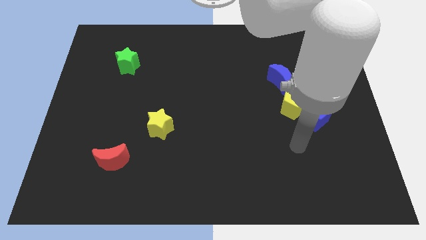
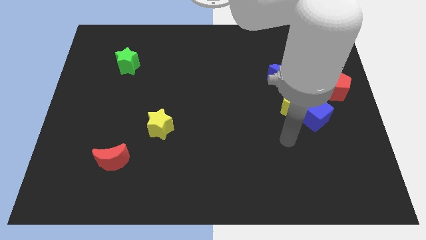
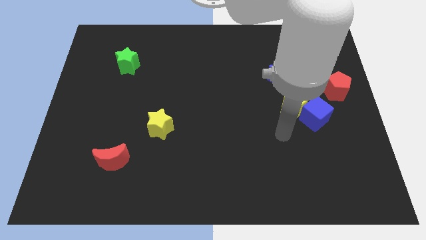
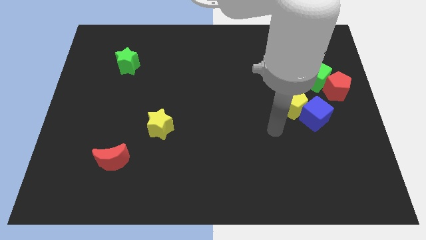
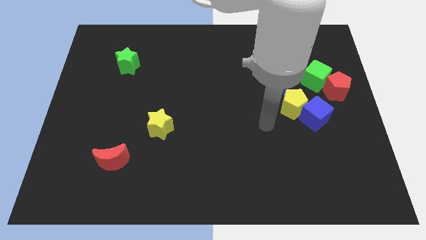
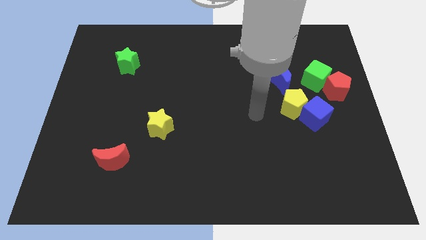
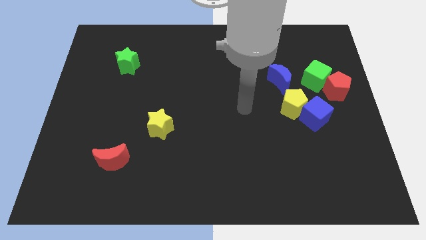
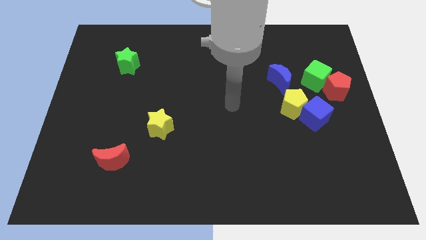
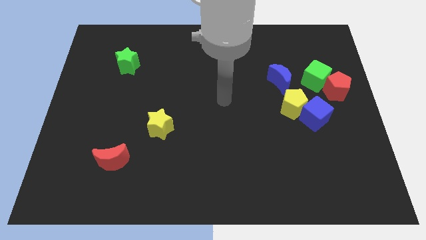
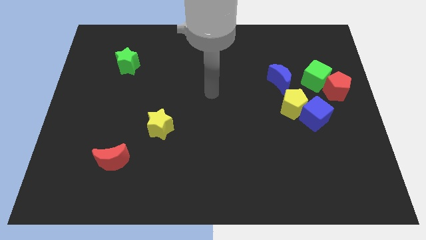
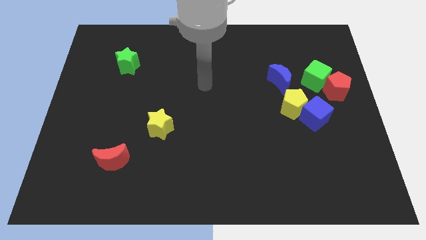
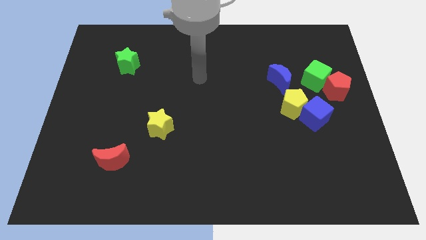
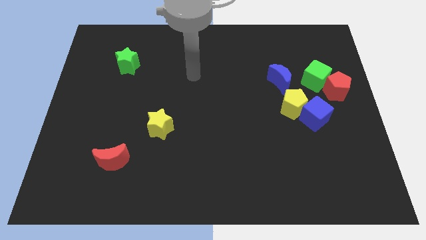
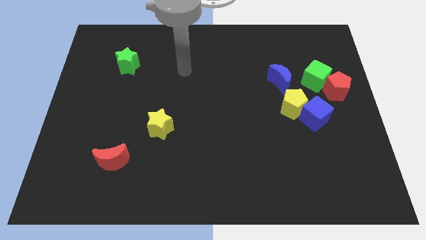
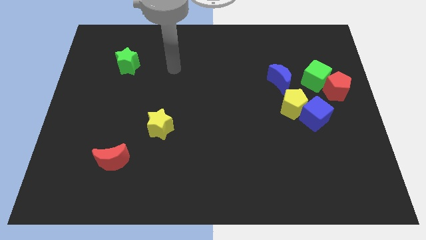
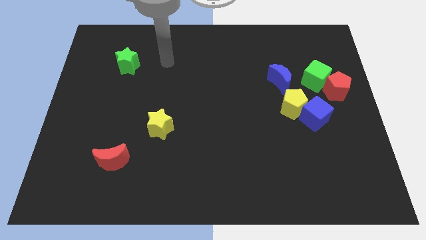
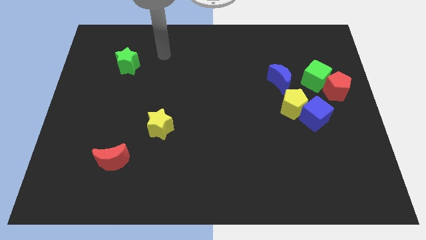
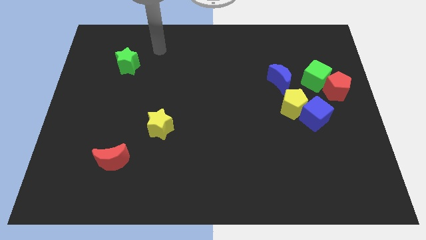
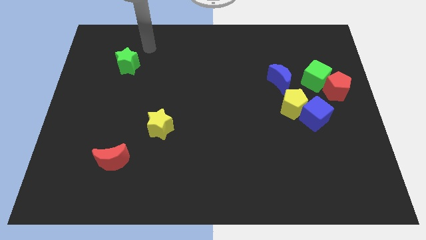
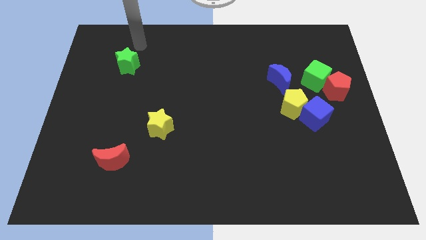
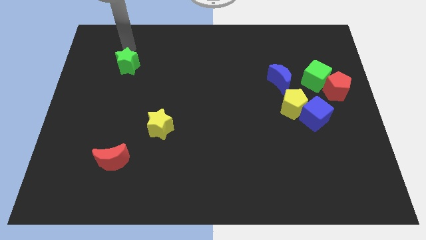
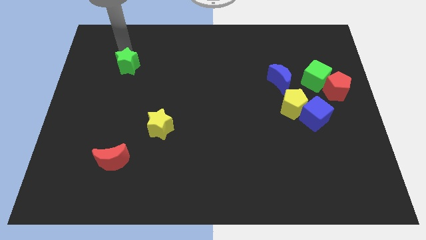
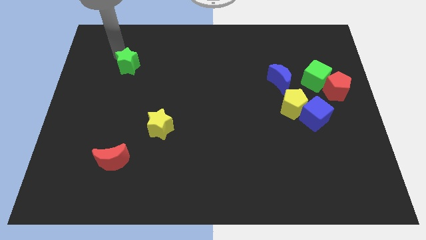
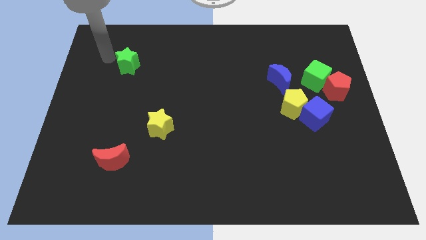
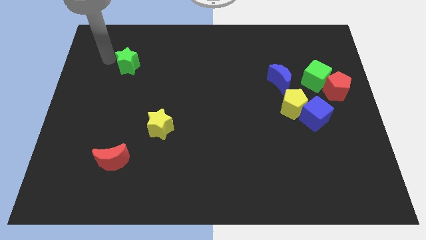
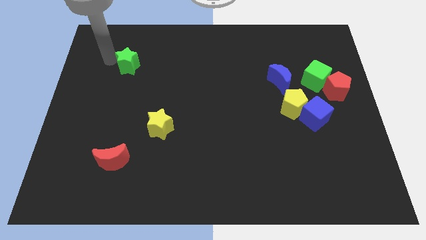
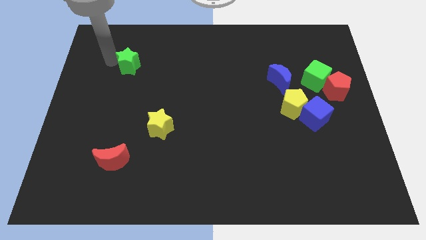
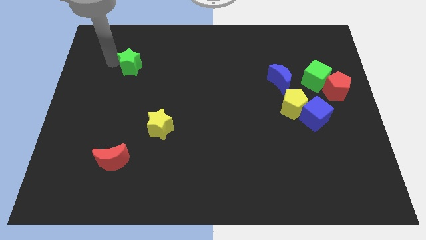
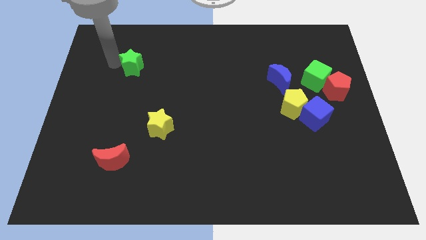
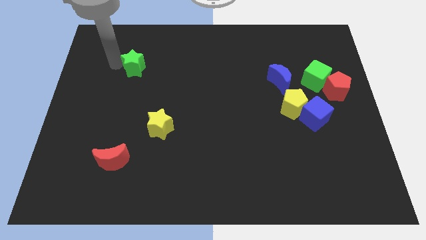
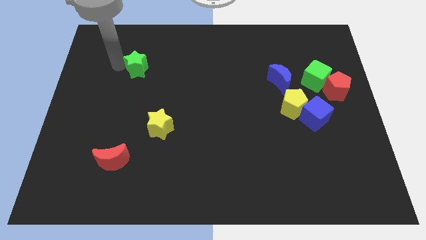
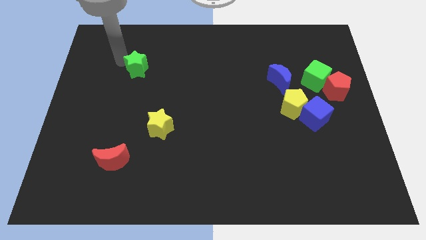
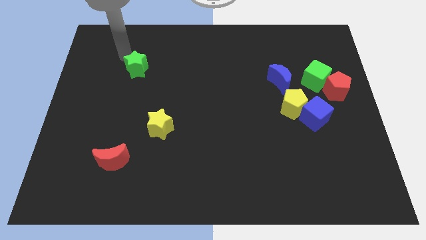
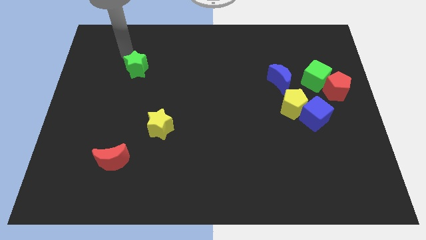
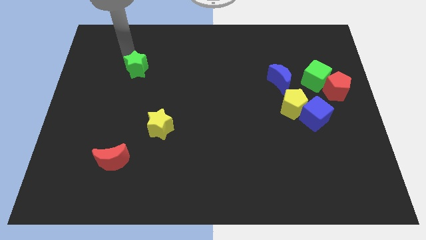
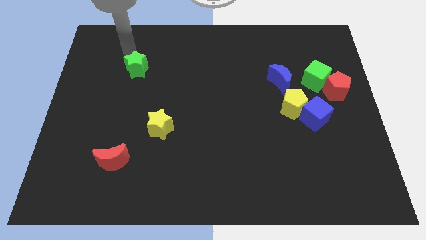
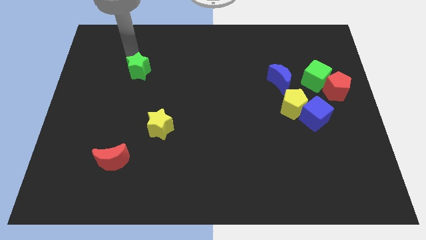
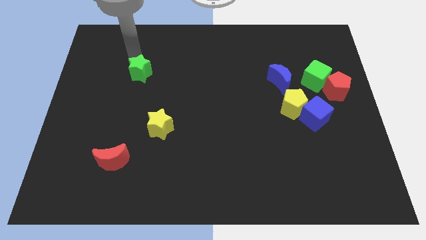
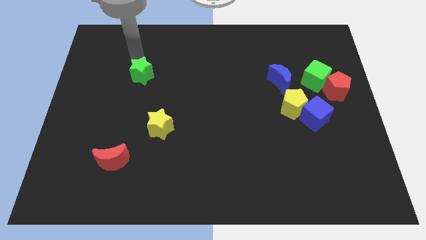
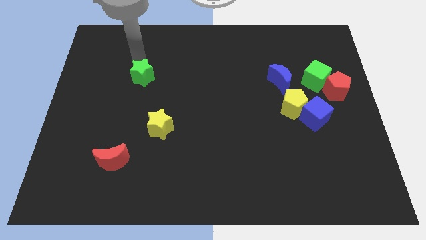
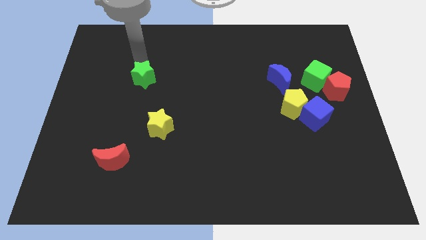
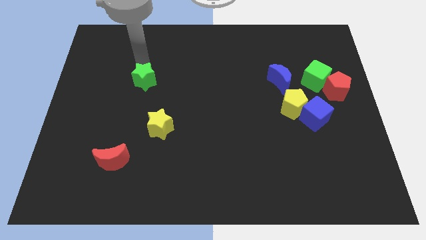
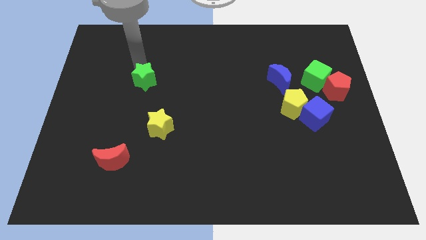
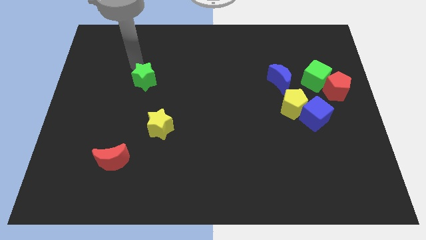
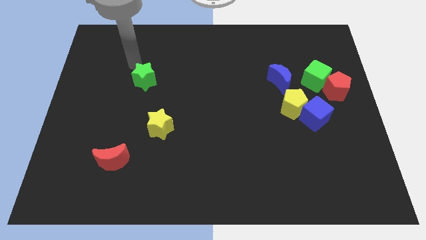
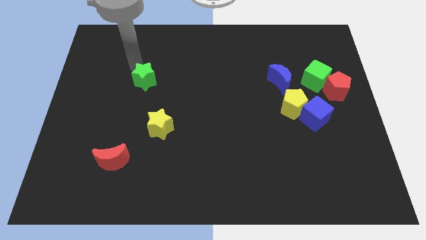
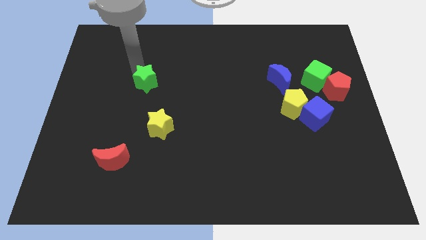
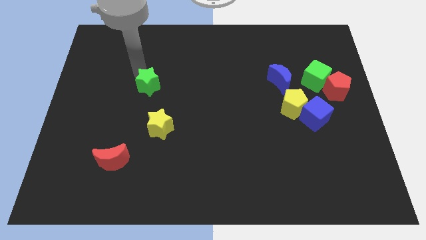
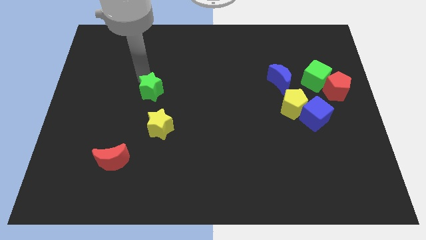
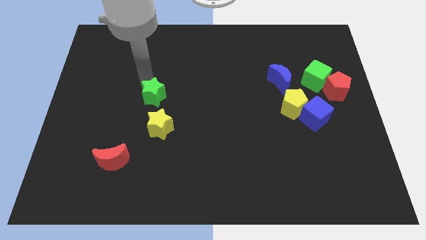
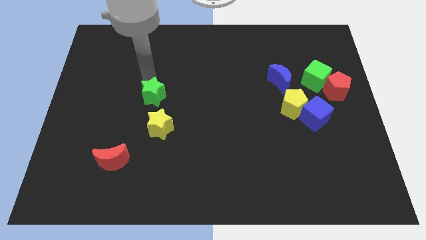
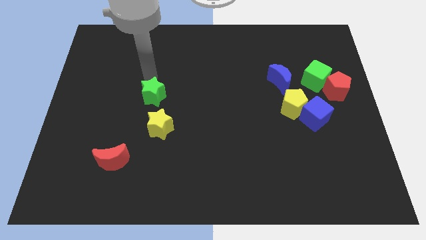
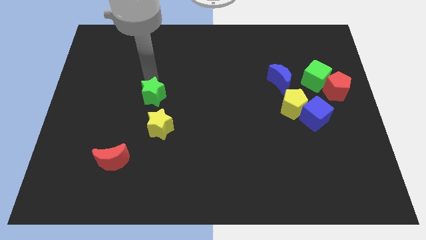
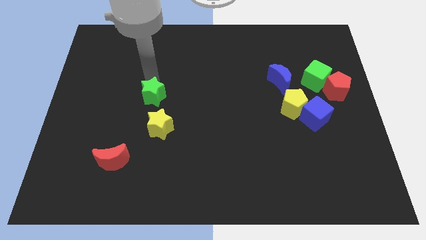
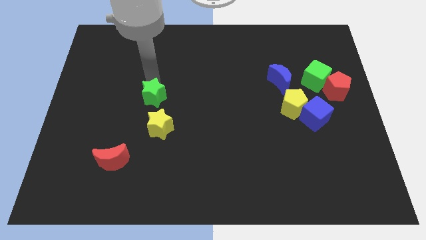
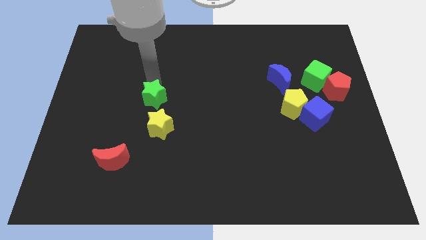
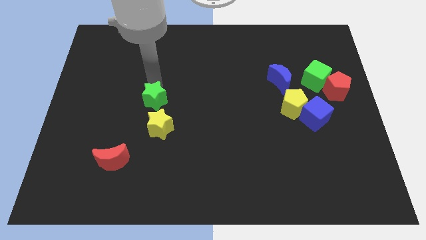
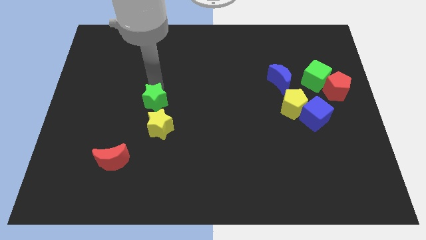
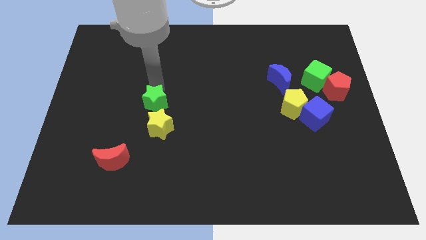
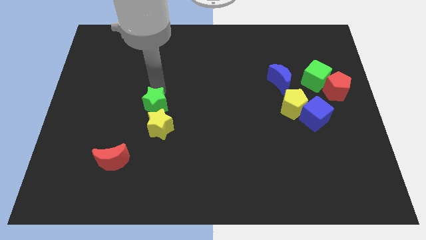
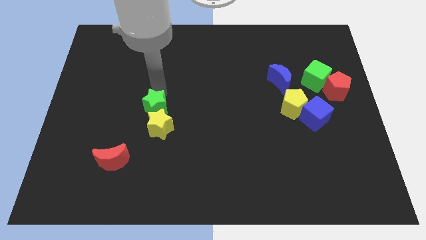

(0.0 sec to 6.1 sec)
push the green star to the yellow star

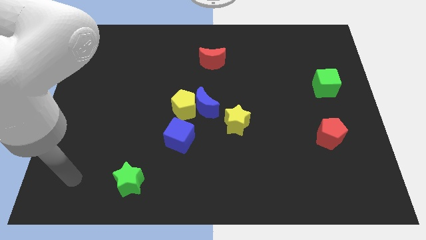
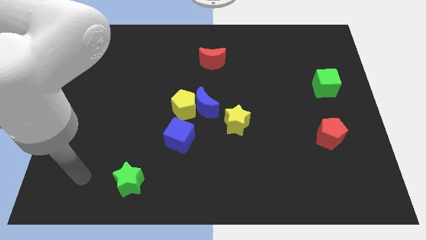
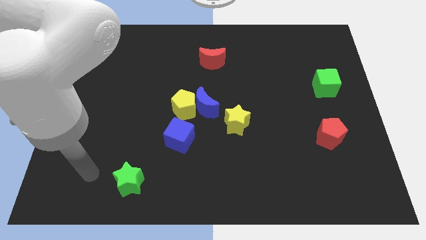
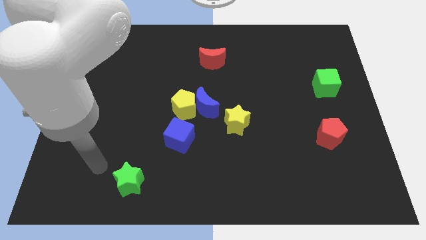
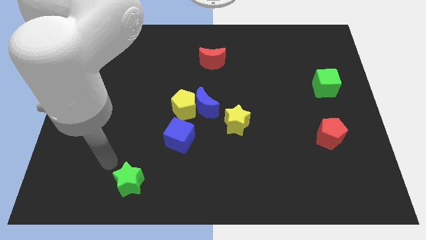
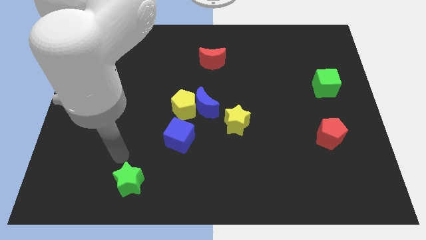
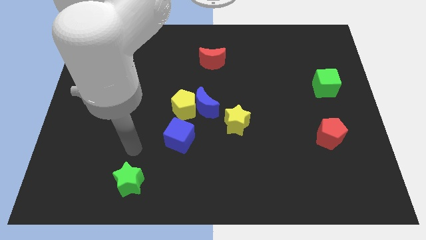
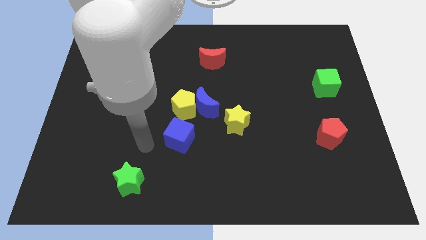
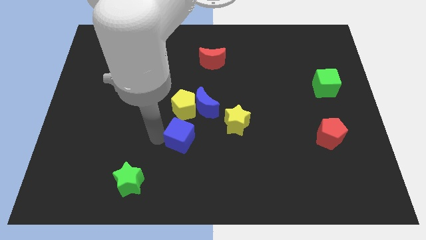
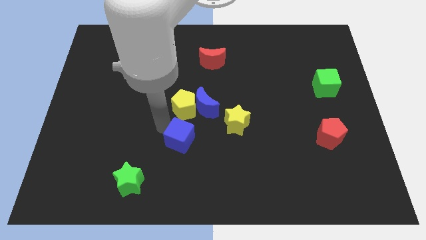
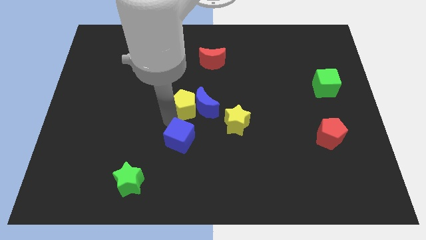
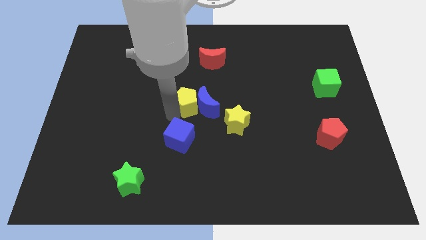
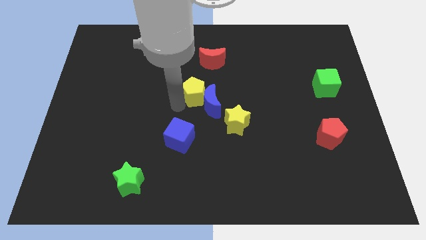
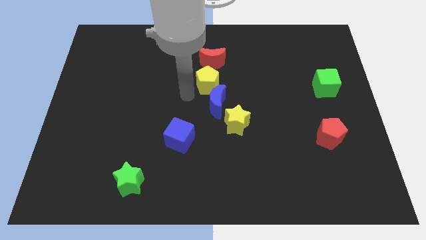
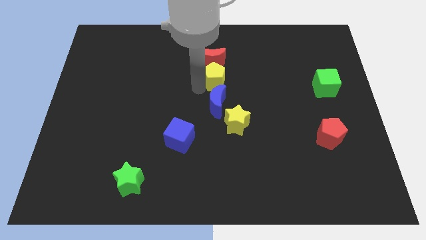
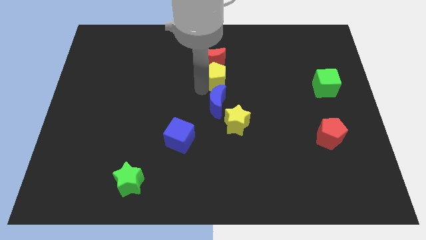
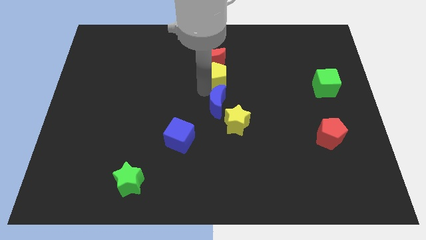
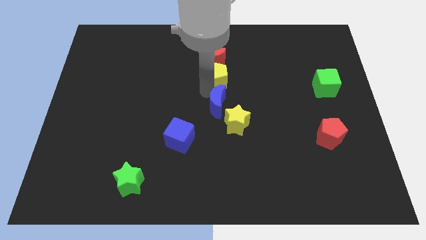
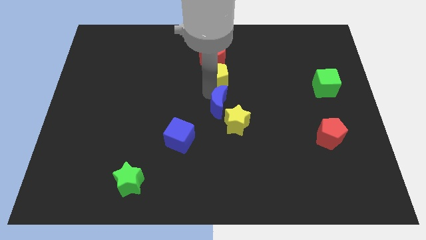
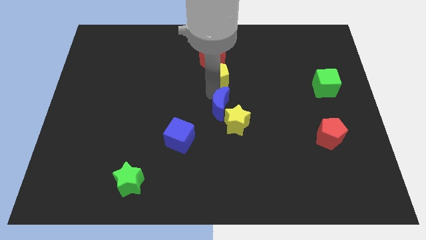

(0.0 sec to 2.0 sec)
move the blue moon towards the yellow star
